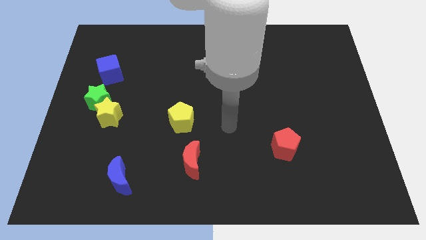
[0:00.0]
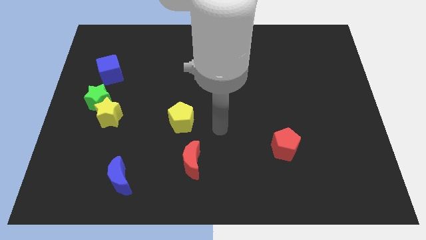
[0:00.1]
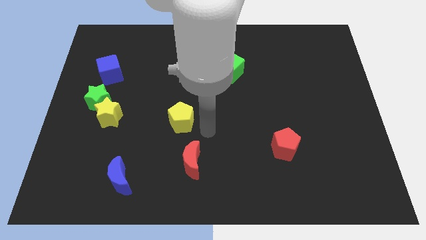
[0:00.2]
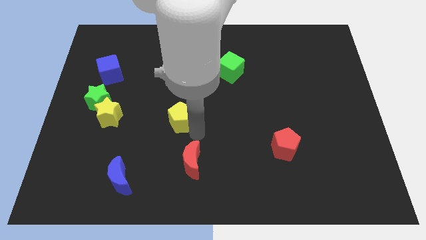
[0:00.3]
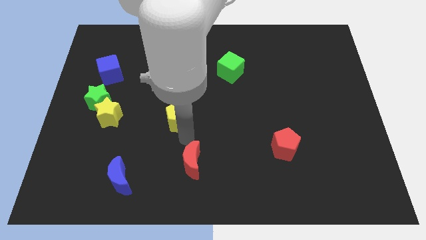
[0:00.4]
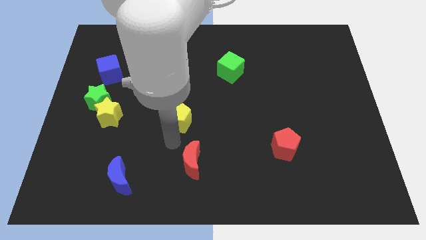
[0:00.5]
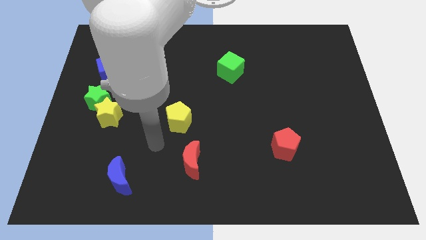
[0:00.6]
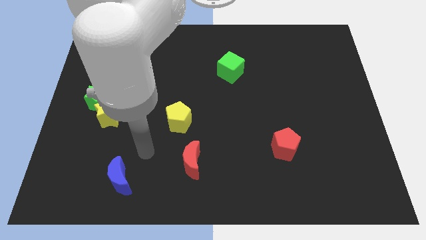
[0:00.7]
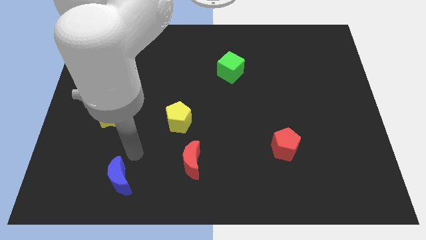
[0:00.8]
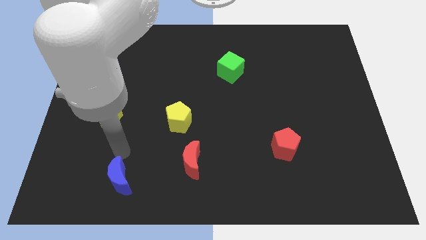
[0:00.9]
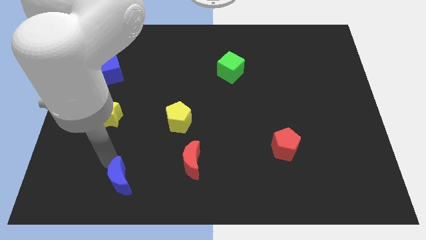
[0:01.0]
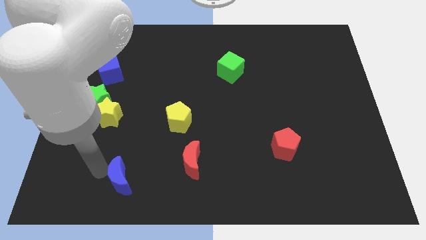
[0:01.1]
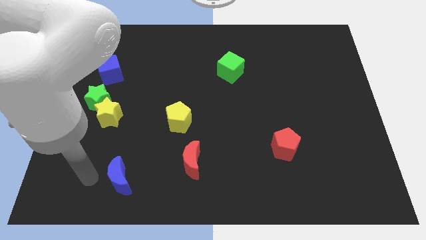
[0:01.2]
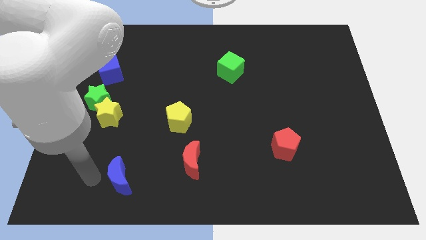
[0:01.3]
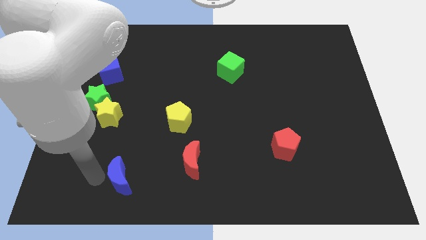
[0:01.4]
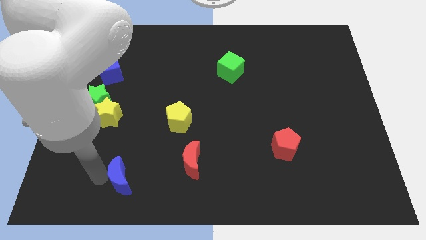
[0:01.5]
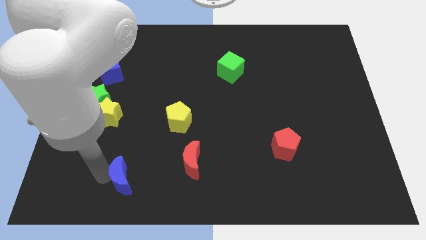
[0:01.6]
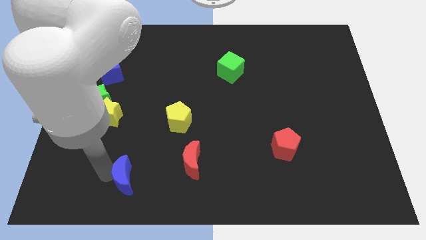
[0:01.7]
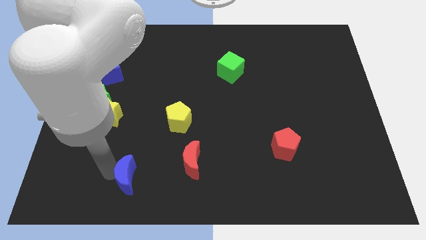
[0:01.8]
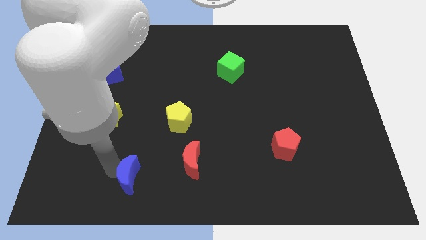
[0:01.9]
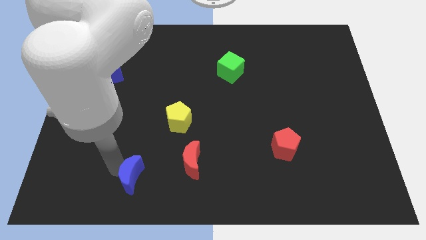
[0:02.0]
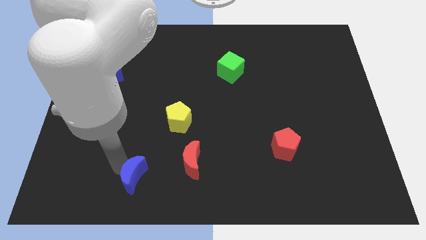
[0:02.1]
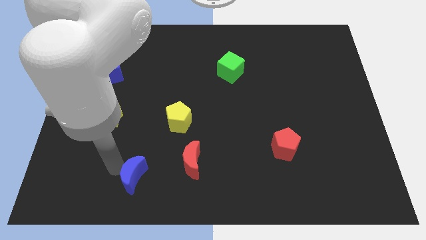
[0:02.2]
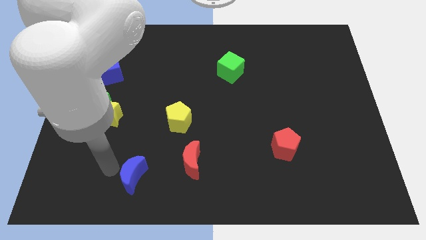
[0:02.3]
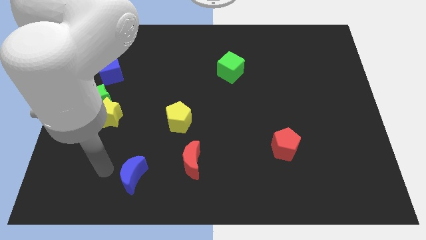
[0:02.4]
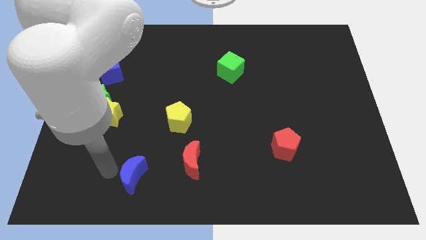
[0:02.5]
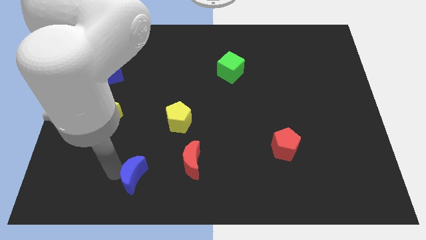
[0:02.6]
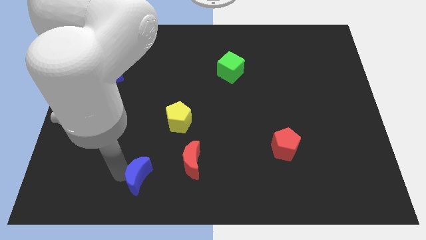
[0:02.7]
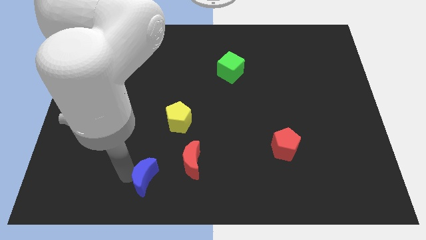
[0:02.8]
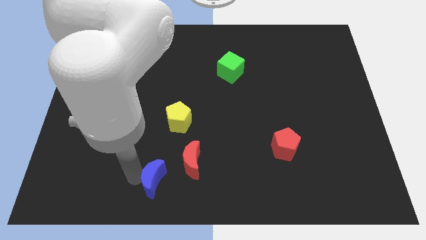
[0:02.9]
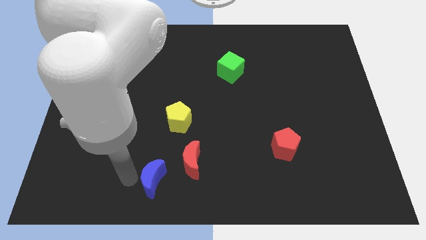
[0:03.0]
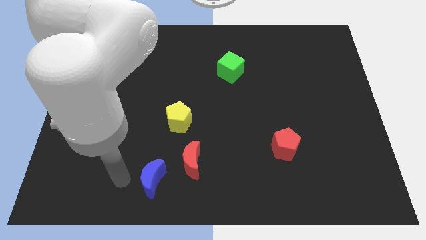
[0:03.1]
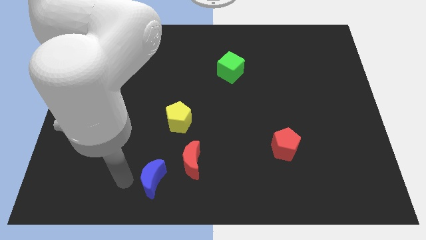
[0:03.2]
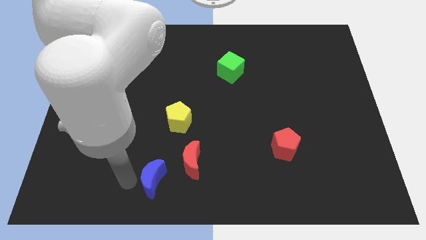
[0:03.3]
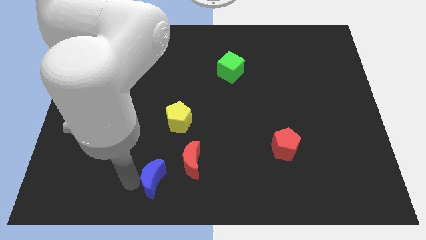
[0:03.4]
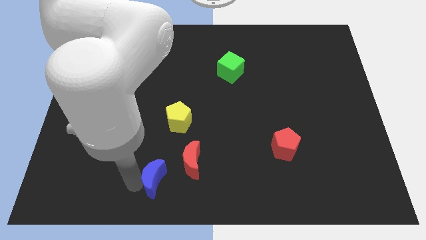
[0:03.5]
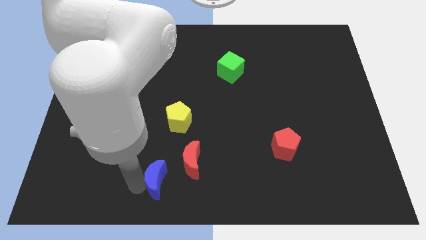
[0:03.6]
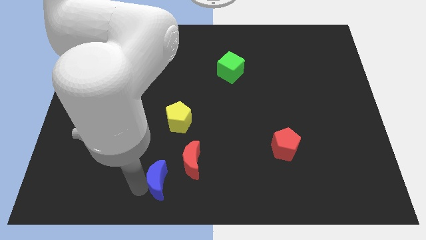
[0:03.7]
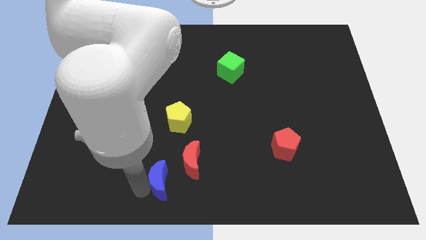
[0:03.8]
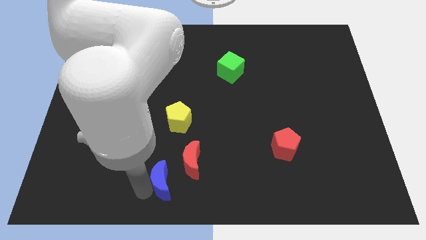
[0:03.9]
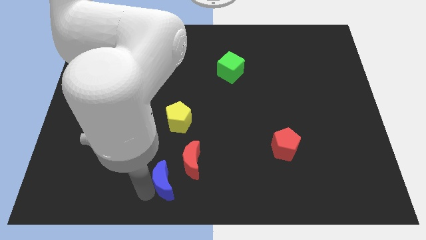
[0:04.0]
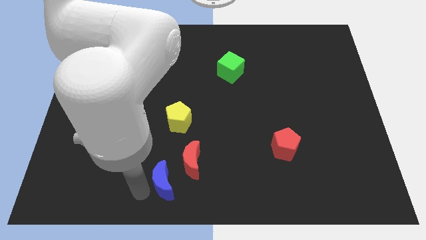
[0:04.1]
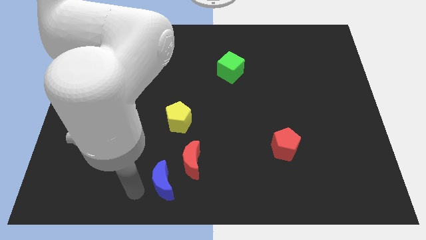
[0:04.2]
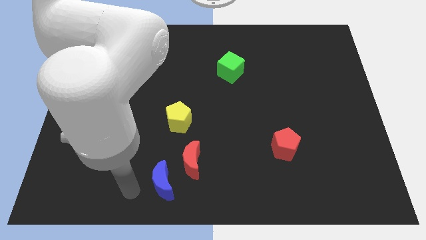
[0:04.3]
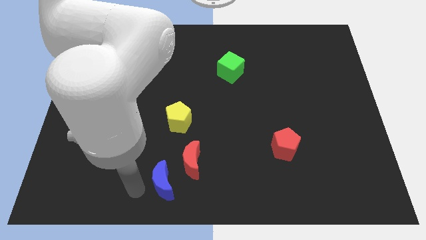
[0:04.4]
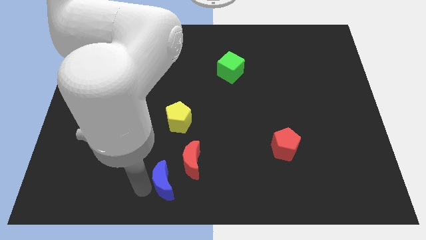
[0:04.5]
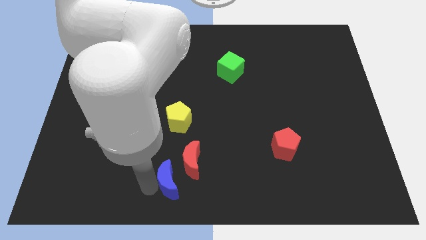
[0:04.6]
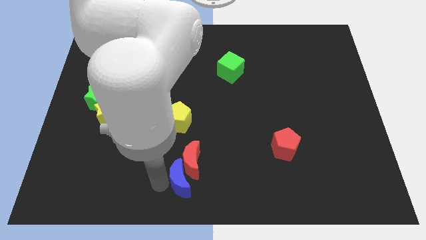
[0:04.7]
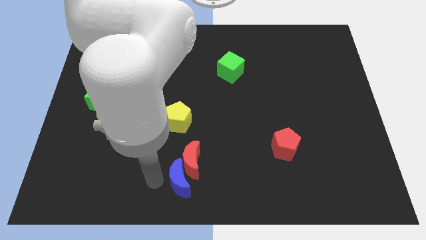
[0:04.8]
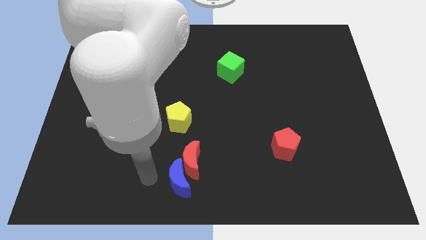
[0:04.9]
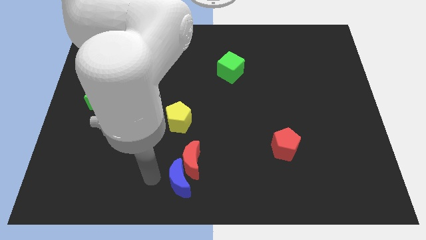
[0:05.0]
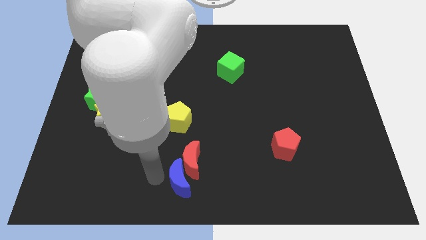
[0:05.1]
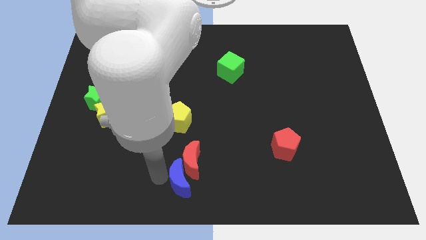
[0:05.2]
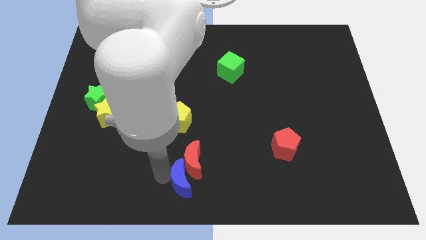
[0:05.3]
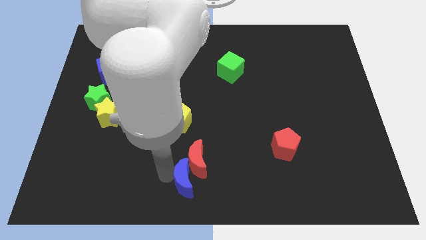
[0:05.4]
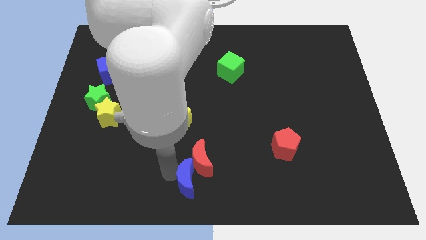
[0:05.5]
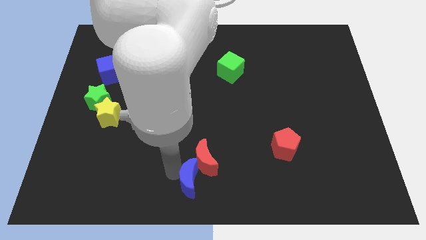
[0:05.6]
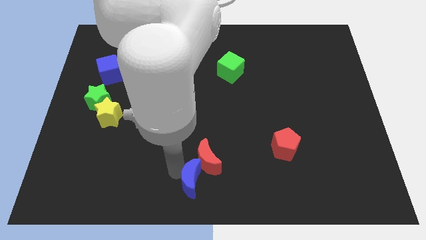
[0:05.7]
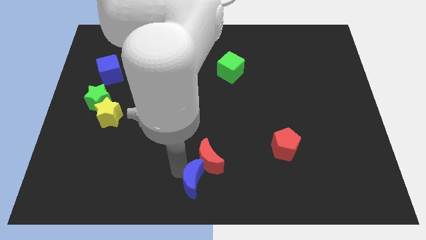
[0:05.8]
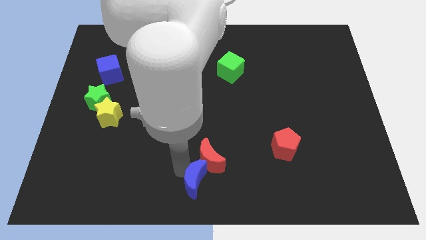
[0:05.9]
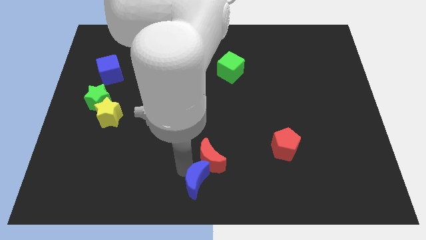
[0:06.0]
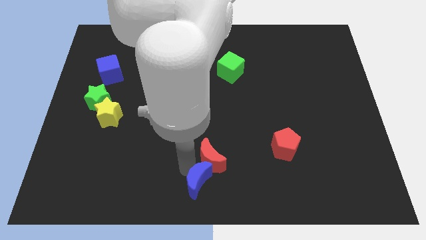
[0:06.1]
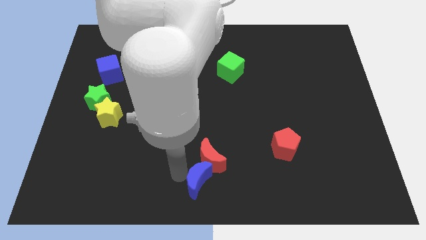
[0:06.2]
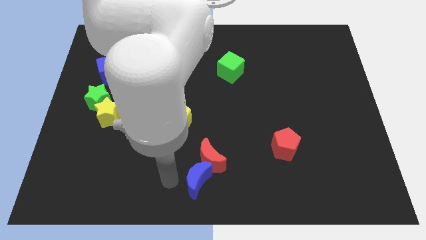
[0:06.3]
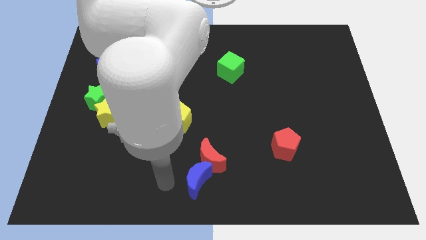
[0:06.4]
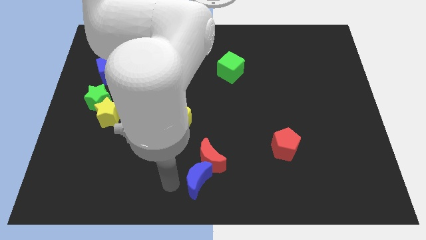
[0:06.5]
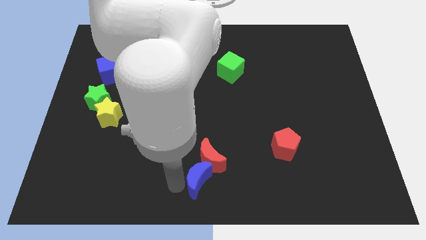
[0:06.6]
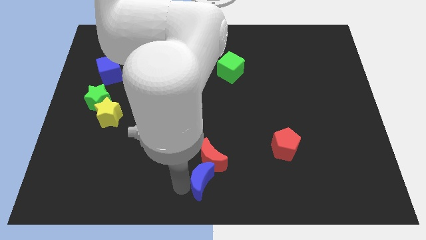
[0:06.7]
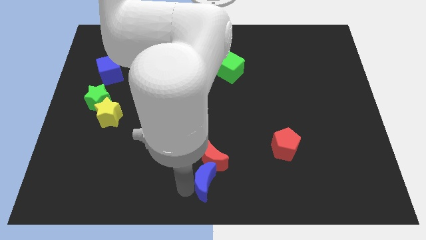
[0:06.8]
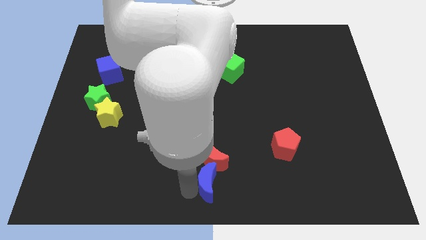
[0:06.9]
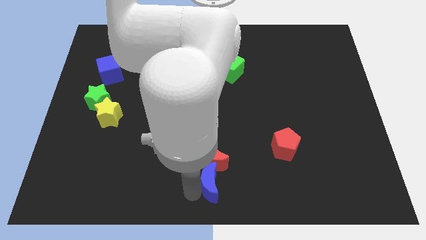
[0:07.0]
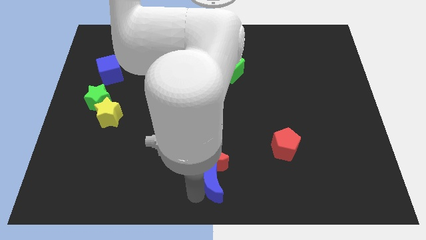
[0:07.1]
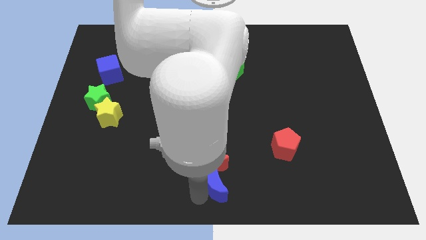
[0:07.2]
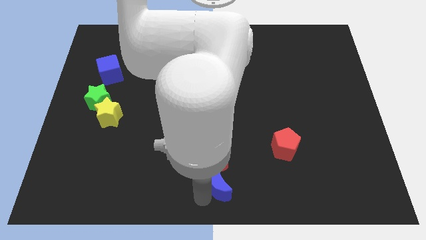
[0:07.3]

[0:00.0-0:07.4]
move the blue moon to the right

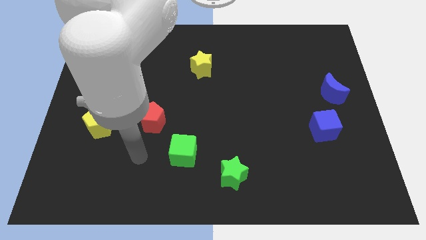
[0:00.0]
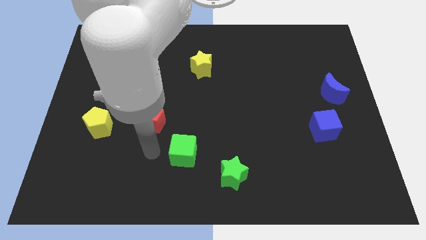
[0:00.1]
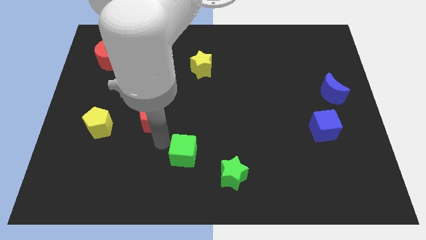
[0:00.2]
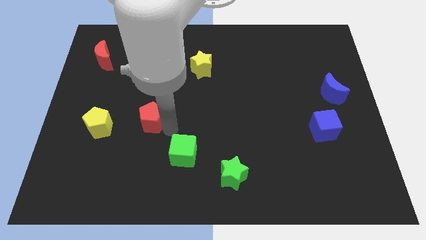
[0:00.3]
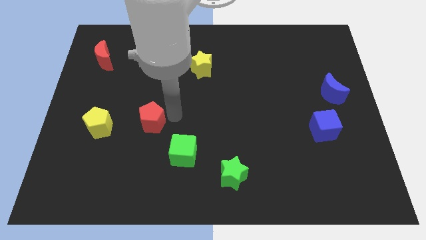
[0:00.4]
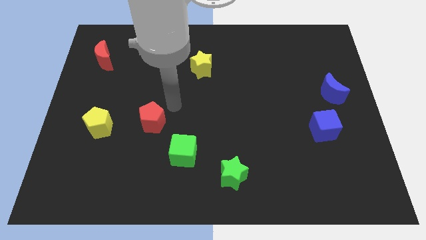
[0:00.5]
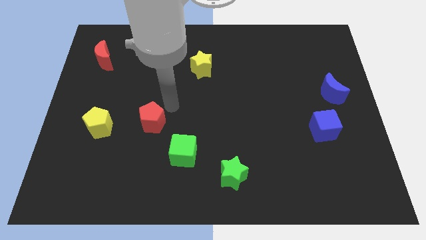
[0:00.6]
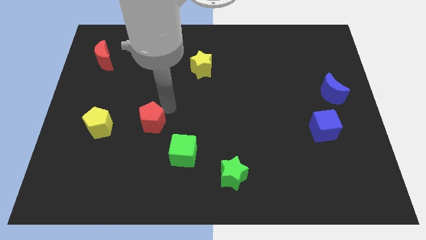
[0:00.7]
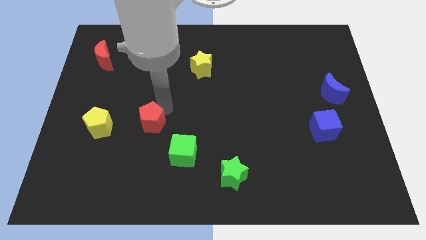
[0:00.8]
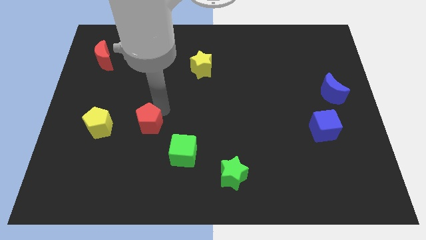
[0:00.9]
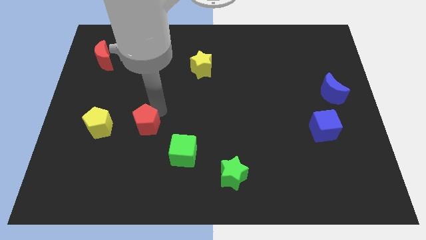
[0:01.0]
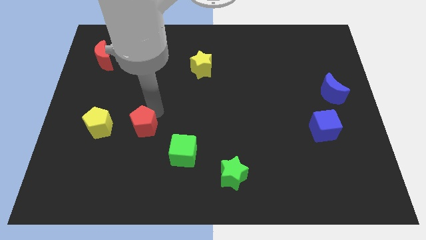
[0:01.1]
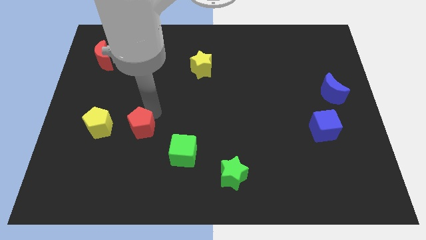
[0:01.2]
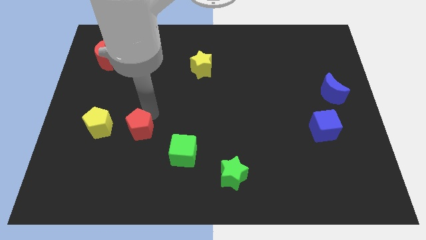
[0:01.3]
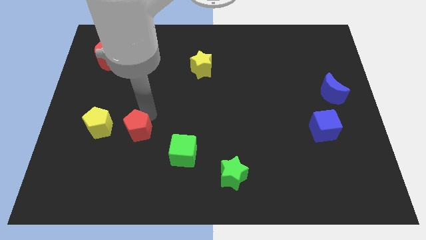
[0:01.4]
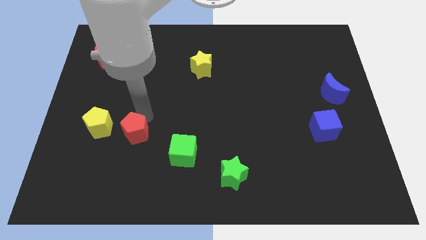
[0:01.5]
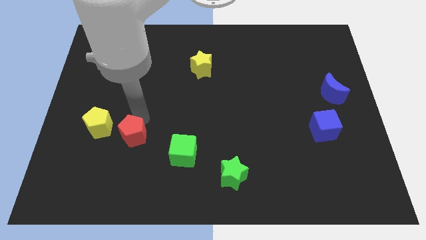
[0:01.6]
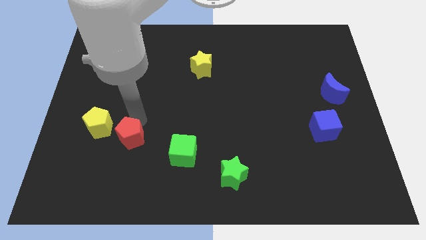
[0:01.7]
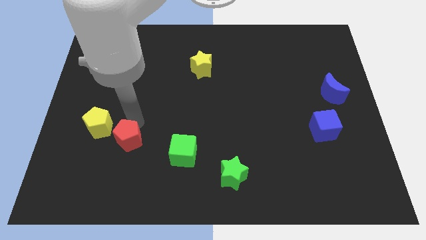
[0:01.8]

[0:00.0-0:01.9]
slightly move the red pentagon diagonally downwards and left
